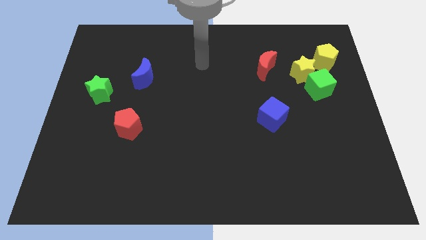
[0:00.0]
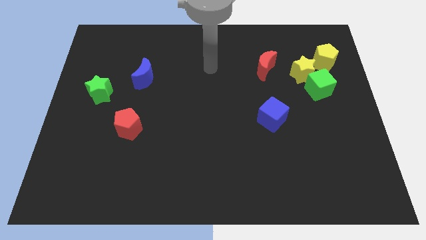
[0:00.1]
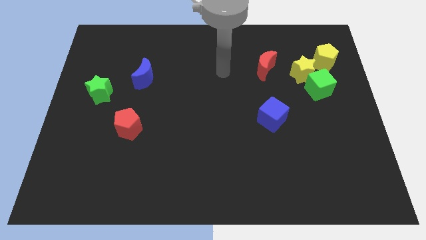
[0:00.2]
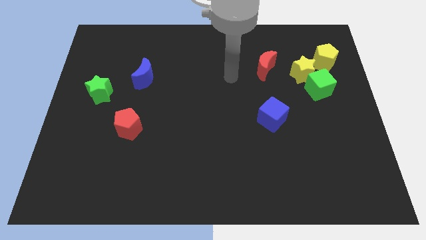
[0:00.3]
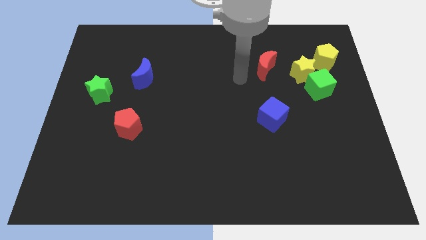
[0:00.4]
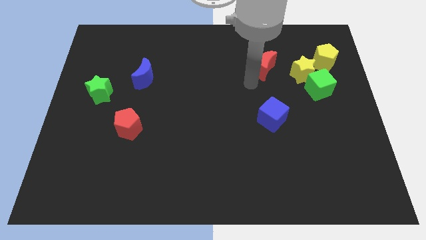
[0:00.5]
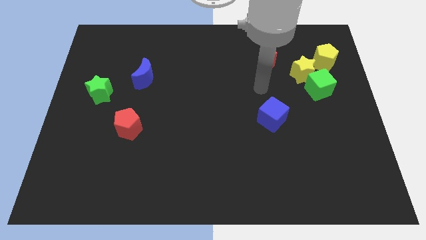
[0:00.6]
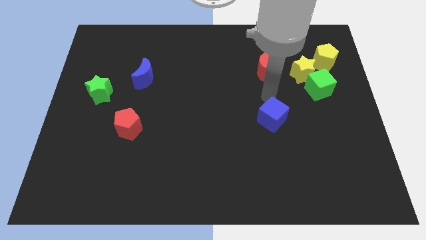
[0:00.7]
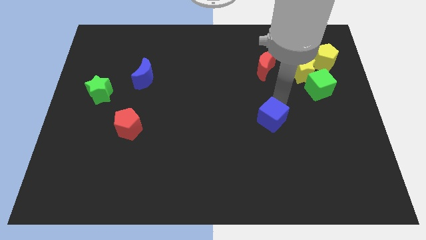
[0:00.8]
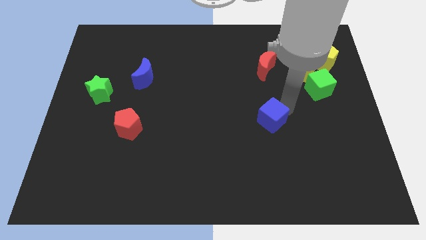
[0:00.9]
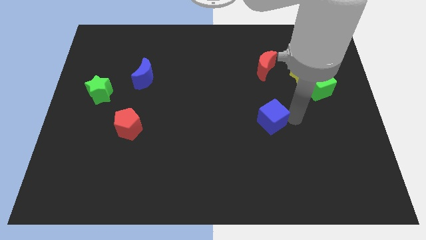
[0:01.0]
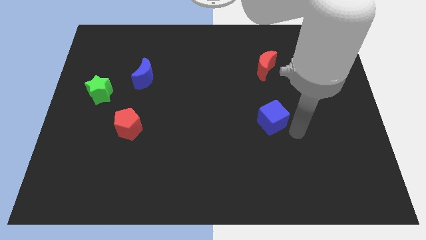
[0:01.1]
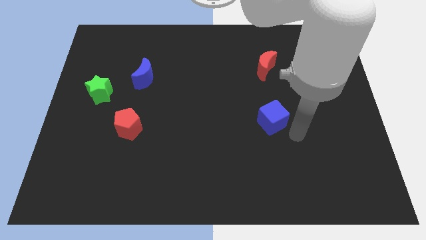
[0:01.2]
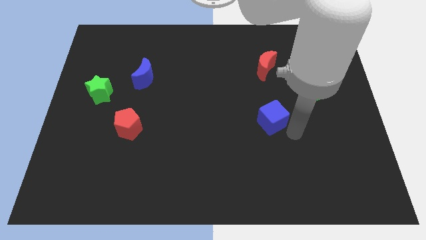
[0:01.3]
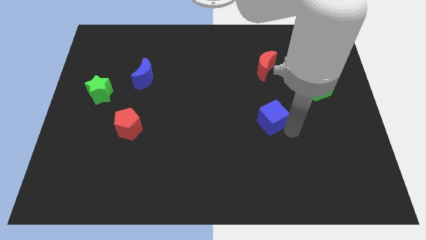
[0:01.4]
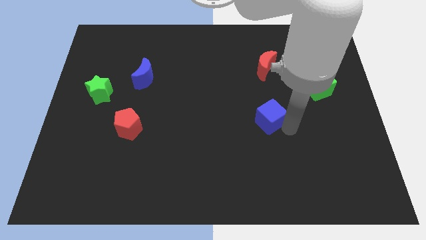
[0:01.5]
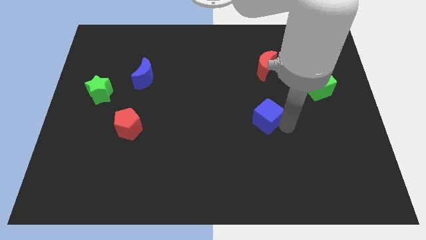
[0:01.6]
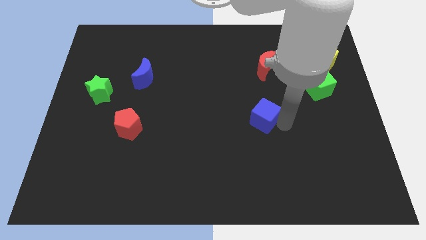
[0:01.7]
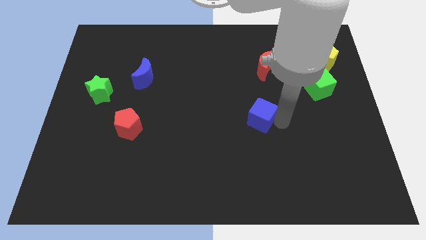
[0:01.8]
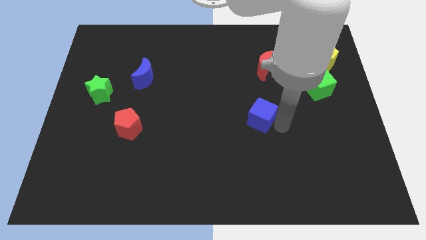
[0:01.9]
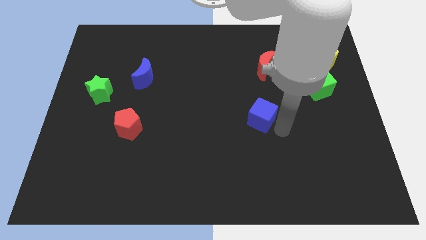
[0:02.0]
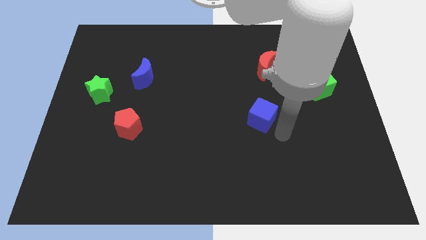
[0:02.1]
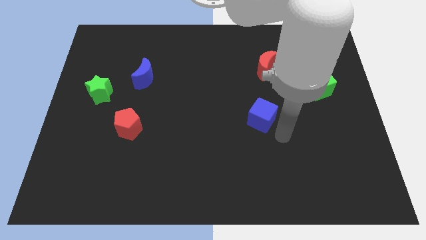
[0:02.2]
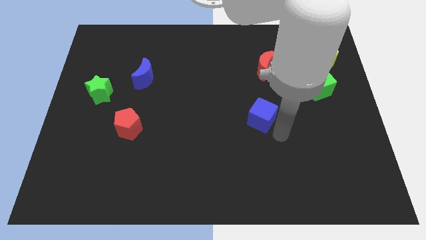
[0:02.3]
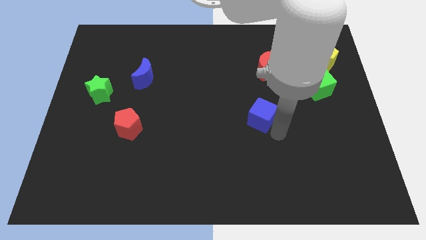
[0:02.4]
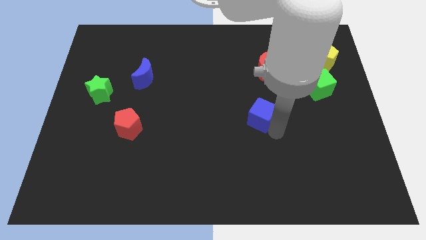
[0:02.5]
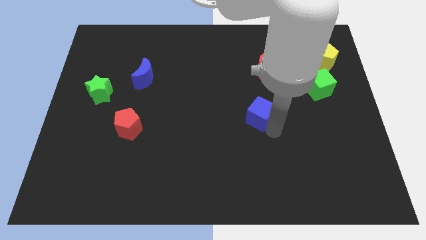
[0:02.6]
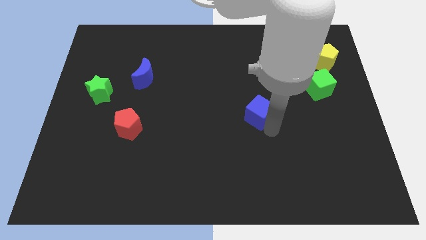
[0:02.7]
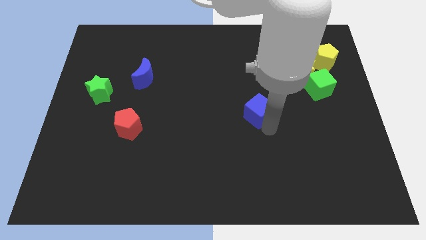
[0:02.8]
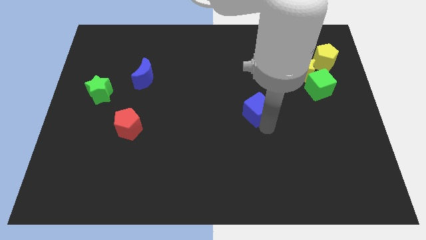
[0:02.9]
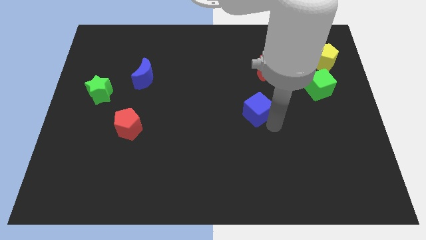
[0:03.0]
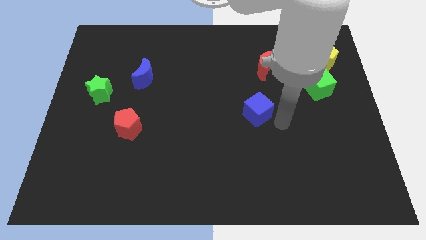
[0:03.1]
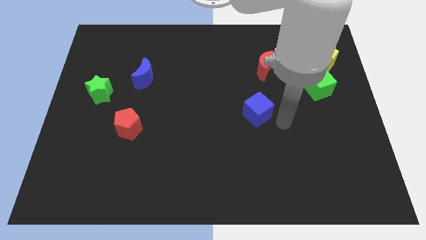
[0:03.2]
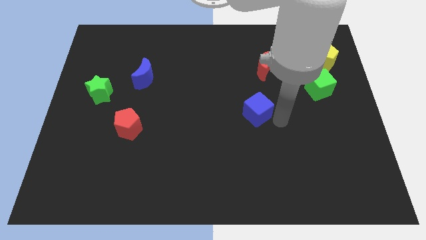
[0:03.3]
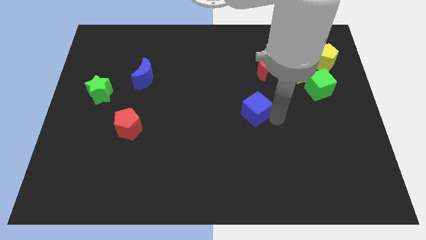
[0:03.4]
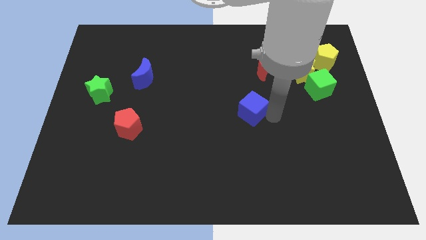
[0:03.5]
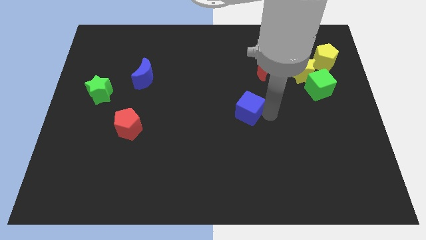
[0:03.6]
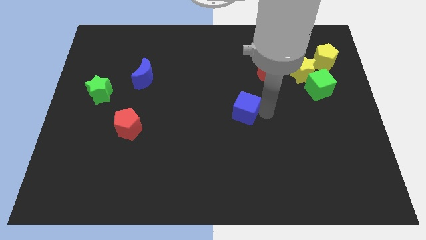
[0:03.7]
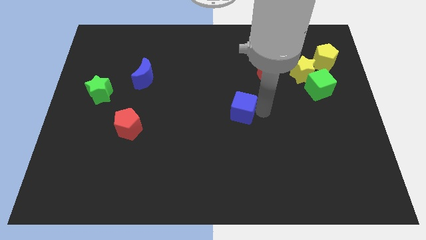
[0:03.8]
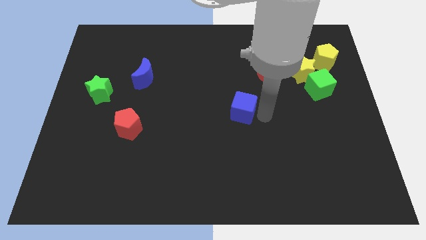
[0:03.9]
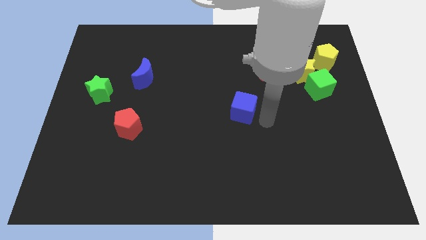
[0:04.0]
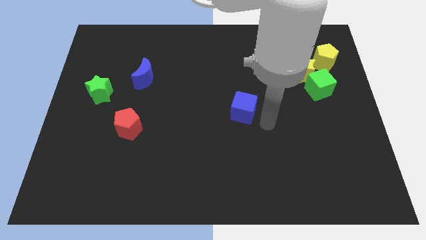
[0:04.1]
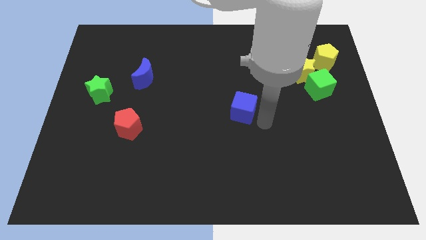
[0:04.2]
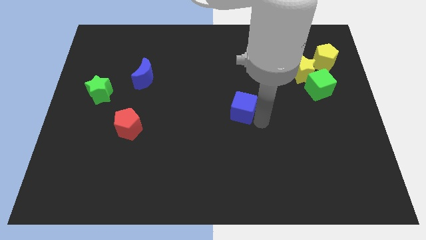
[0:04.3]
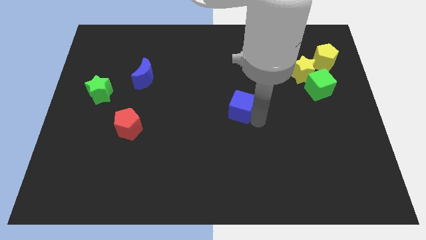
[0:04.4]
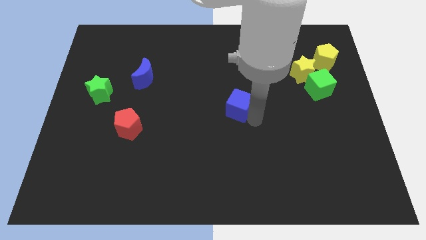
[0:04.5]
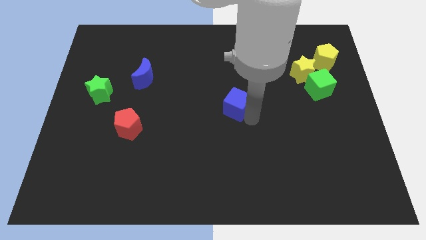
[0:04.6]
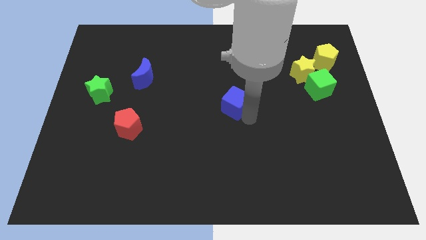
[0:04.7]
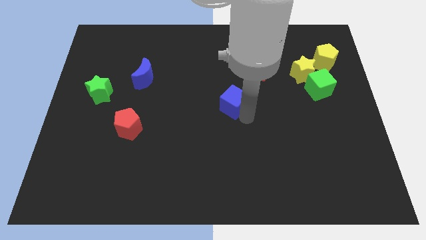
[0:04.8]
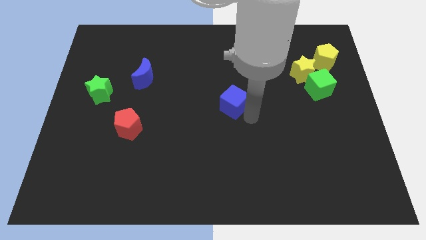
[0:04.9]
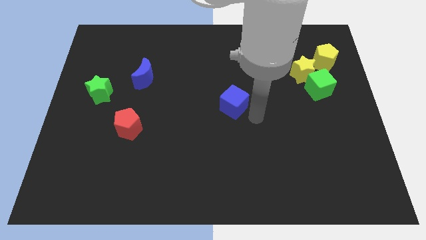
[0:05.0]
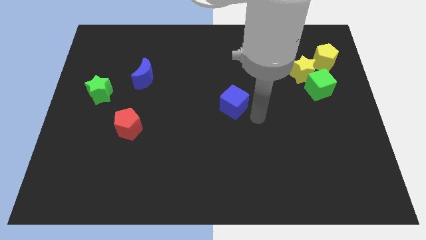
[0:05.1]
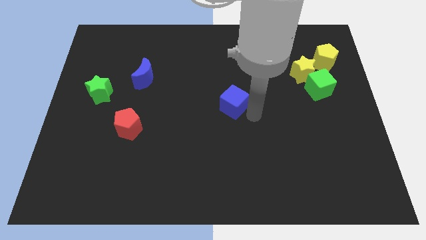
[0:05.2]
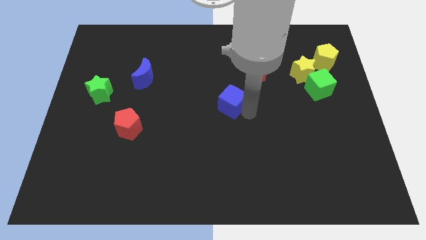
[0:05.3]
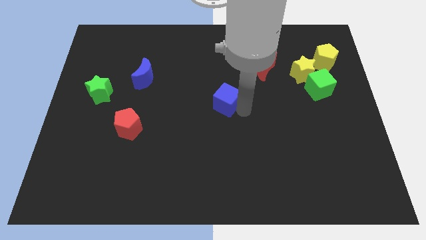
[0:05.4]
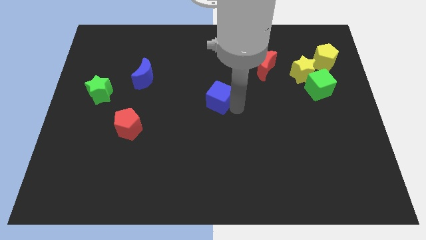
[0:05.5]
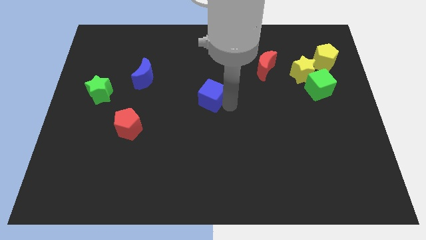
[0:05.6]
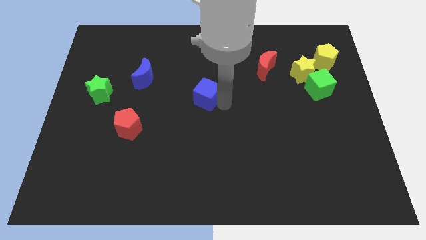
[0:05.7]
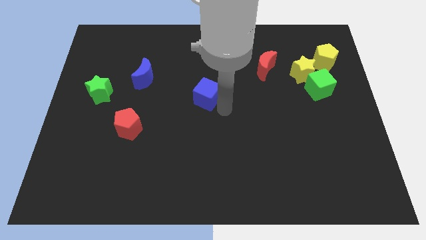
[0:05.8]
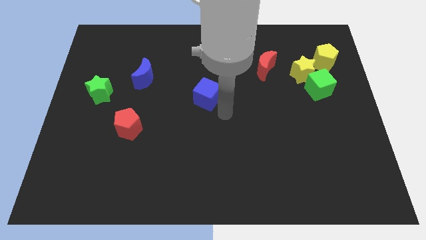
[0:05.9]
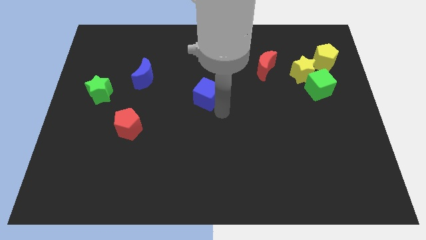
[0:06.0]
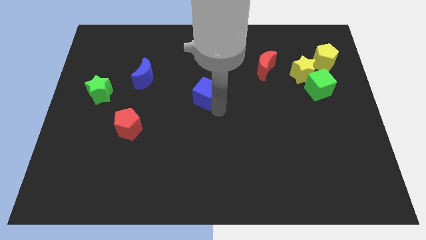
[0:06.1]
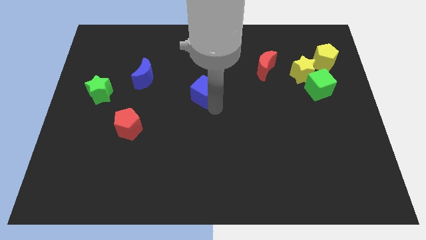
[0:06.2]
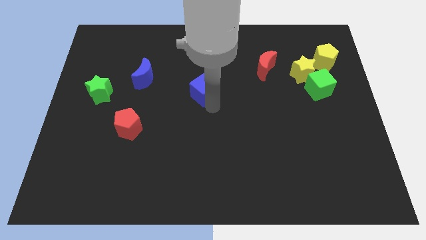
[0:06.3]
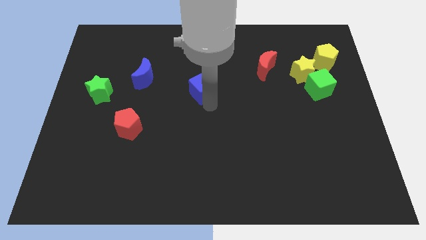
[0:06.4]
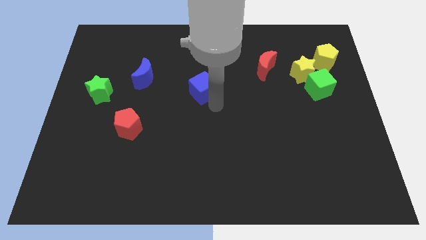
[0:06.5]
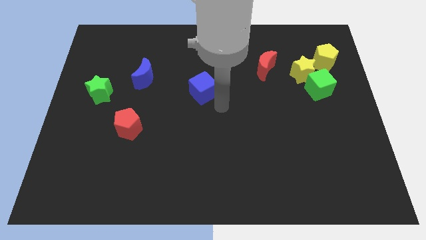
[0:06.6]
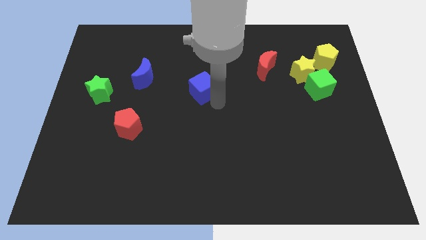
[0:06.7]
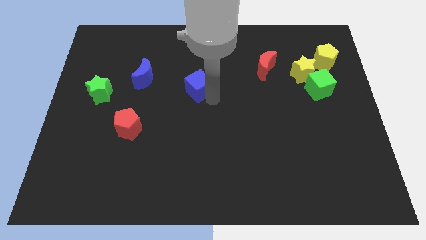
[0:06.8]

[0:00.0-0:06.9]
put the blue cube right of the blue moon
